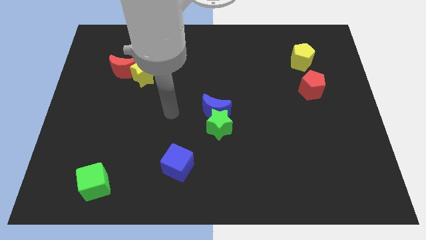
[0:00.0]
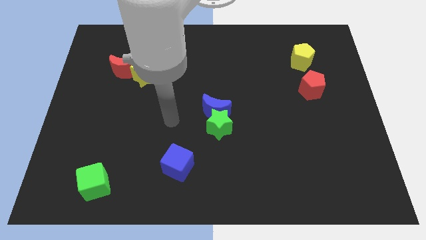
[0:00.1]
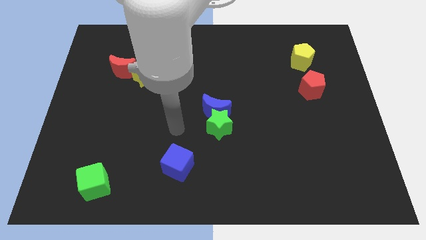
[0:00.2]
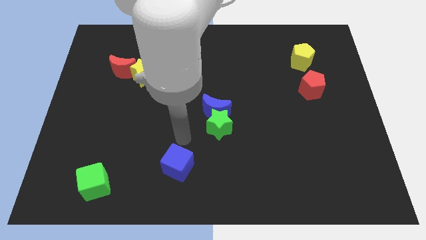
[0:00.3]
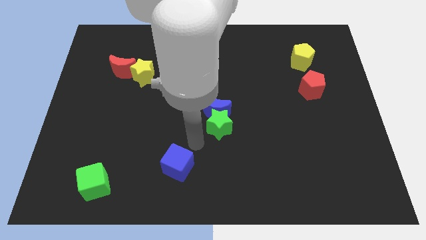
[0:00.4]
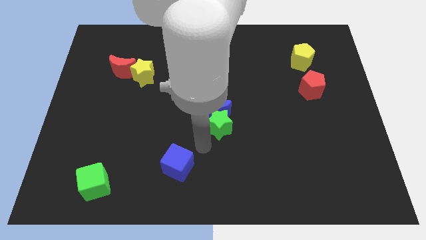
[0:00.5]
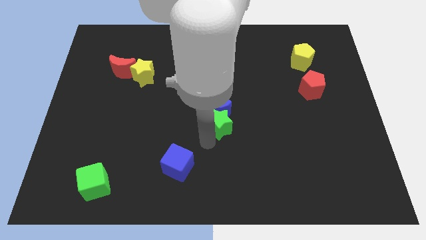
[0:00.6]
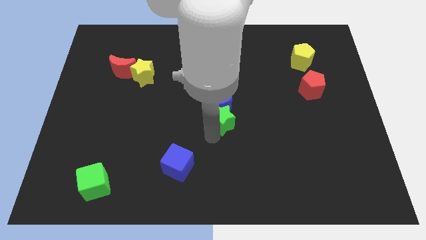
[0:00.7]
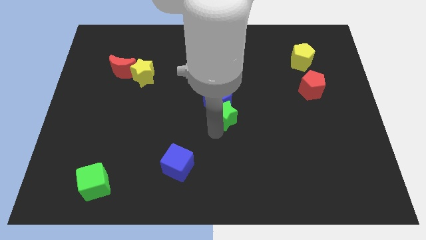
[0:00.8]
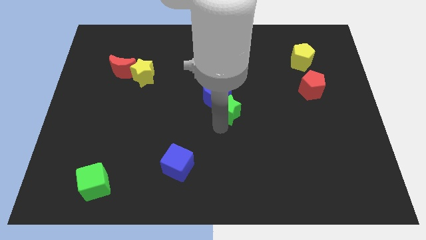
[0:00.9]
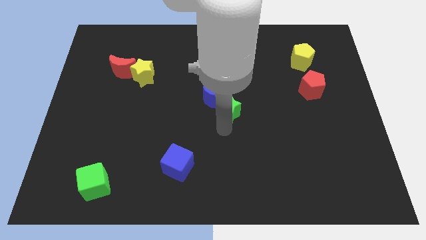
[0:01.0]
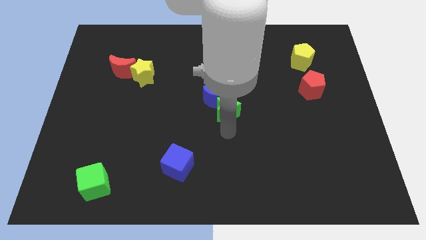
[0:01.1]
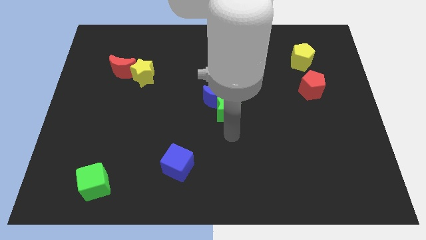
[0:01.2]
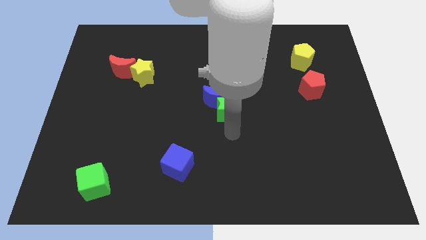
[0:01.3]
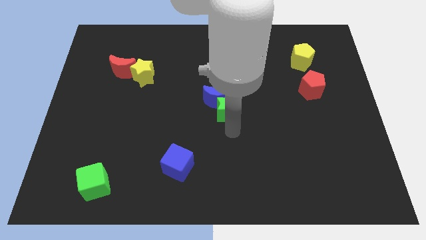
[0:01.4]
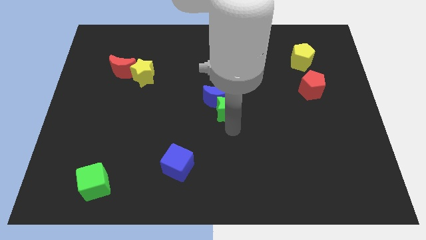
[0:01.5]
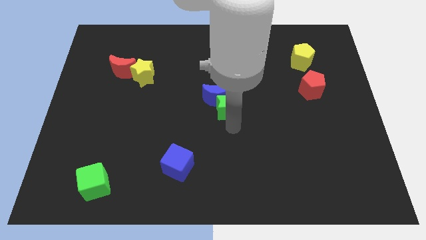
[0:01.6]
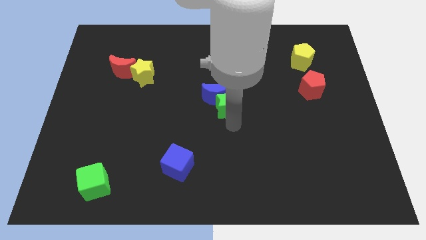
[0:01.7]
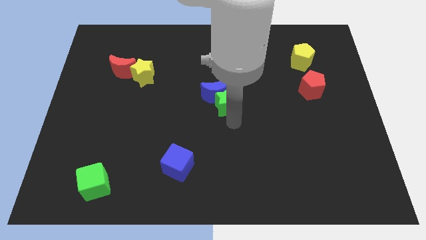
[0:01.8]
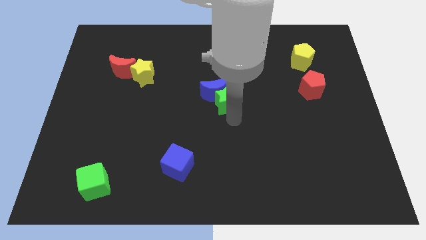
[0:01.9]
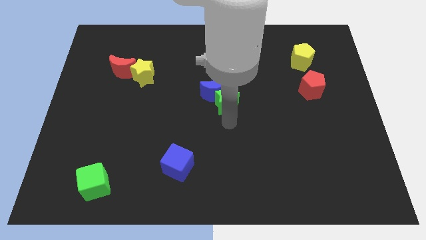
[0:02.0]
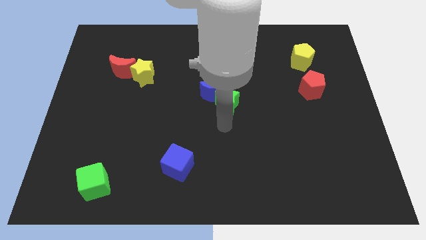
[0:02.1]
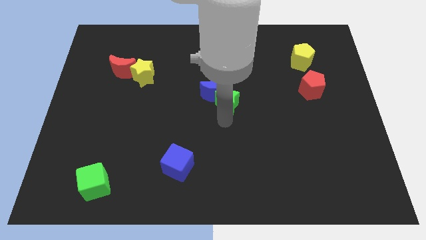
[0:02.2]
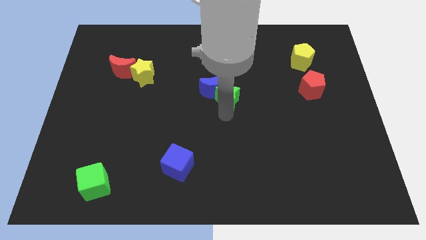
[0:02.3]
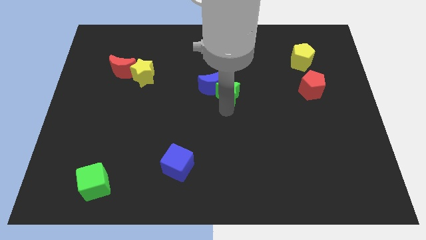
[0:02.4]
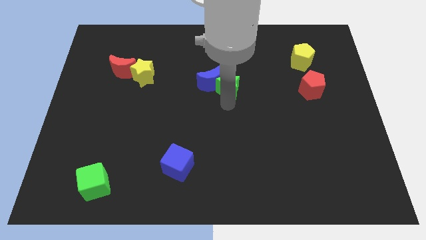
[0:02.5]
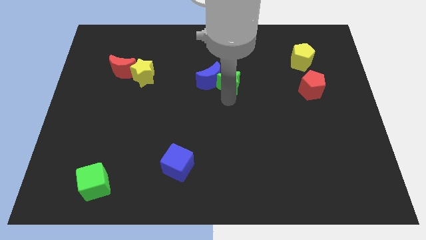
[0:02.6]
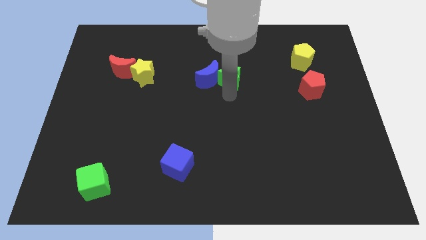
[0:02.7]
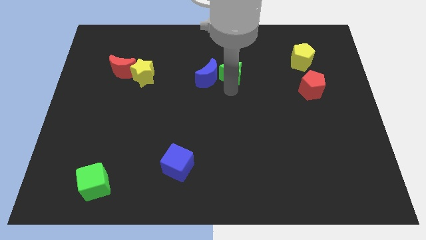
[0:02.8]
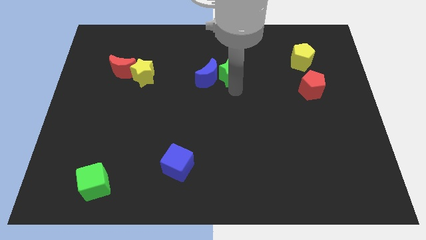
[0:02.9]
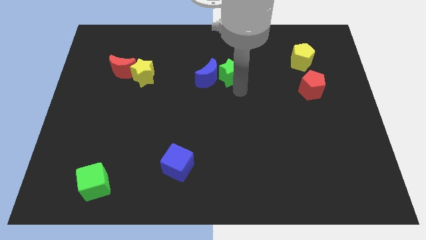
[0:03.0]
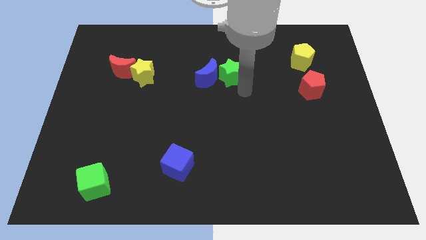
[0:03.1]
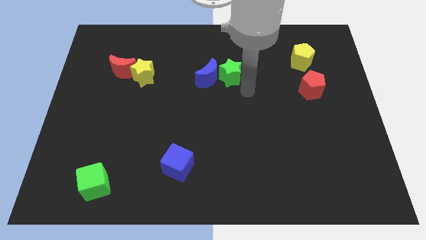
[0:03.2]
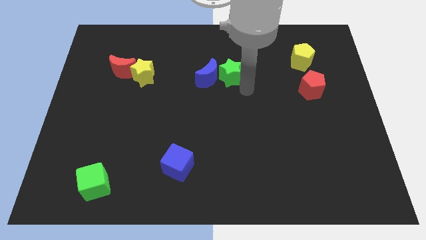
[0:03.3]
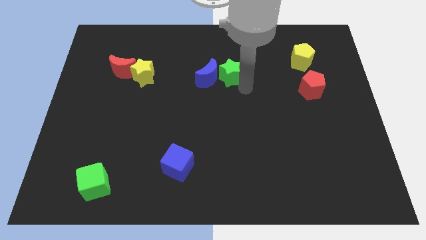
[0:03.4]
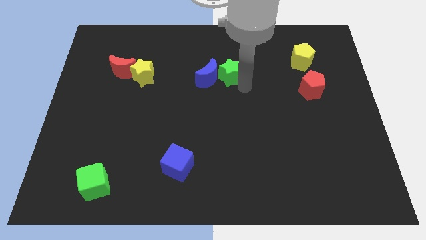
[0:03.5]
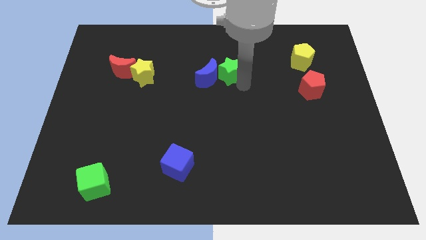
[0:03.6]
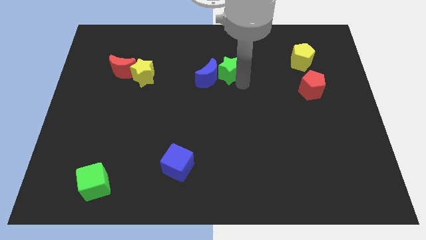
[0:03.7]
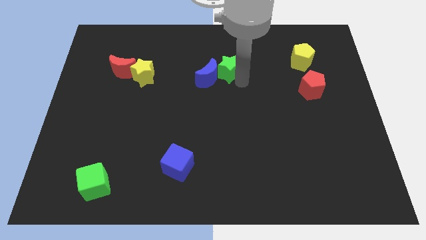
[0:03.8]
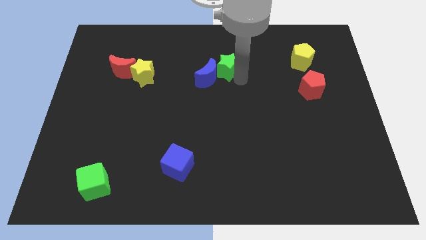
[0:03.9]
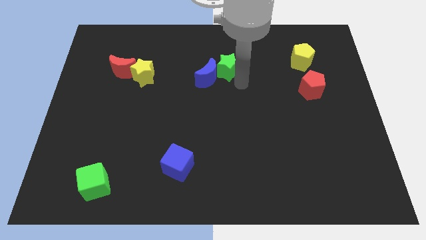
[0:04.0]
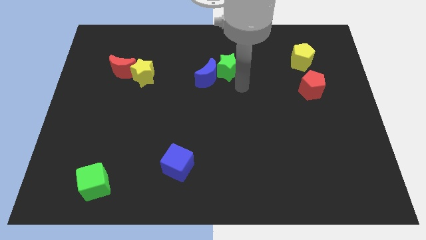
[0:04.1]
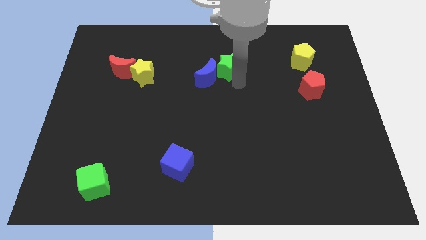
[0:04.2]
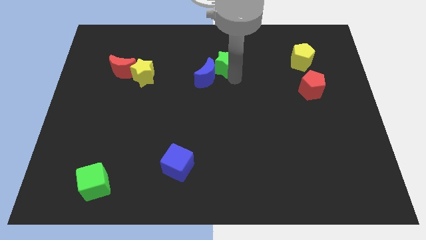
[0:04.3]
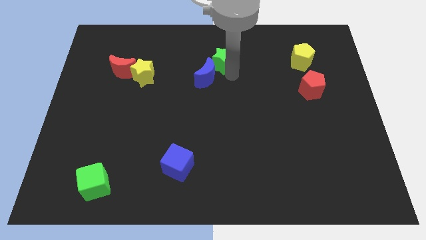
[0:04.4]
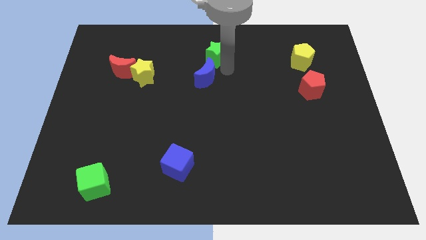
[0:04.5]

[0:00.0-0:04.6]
move the green star to the top

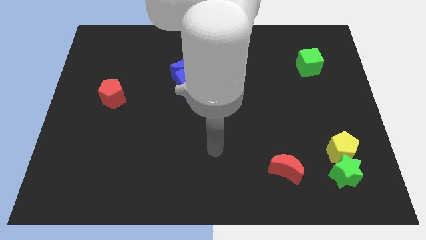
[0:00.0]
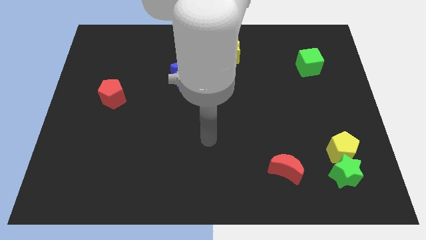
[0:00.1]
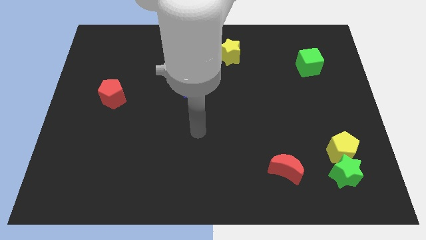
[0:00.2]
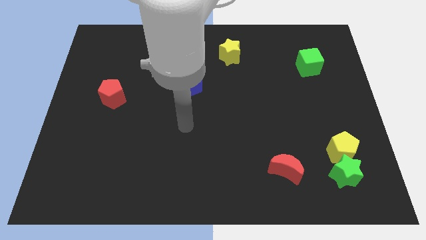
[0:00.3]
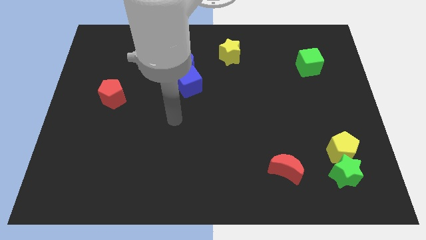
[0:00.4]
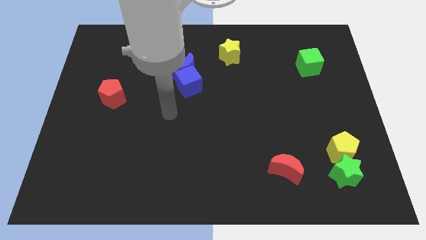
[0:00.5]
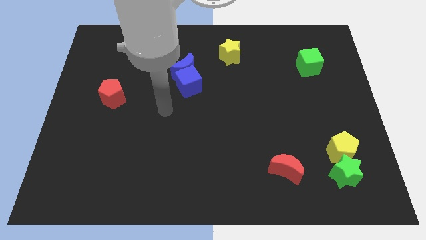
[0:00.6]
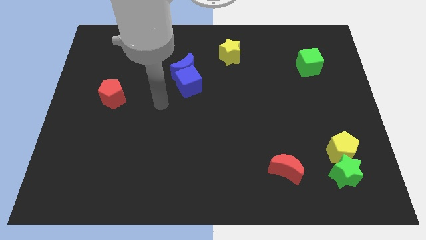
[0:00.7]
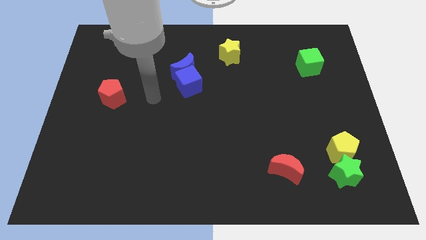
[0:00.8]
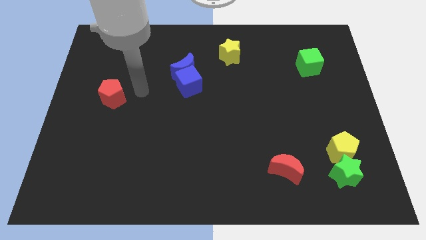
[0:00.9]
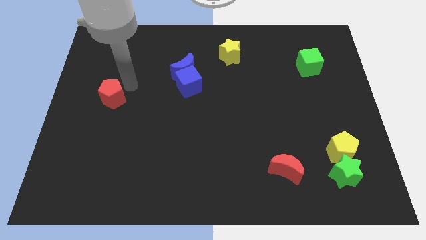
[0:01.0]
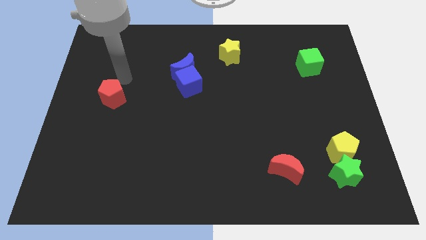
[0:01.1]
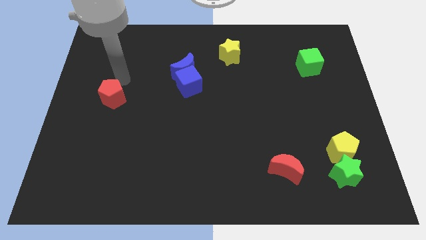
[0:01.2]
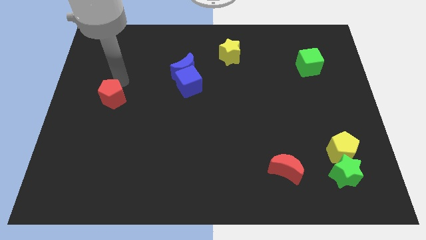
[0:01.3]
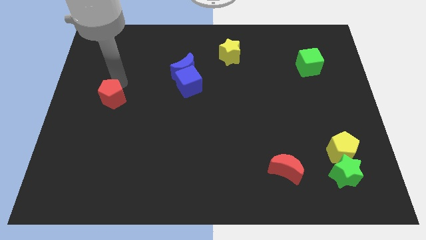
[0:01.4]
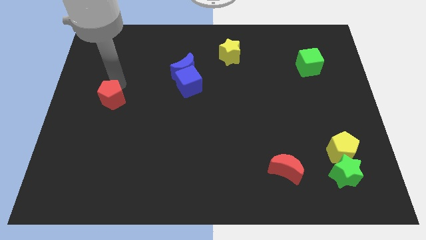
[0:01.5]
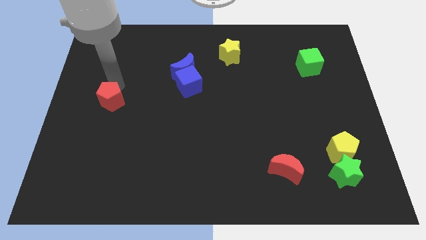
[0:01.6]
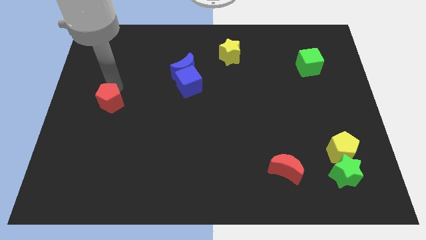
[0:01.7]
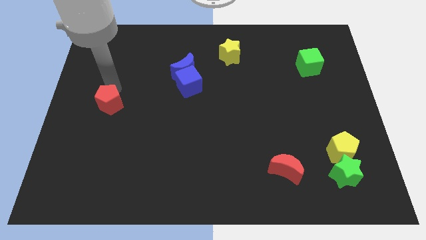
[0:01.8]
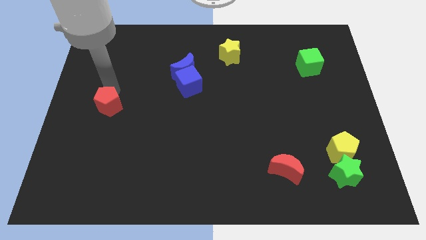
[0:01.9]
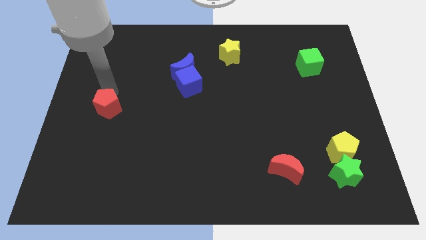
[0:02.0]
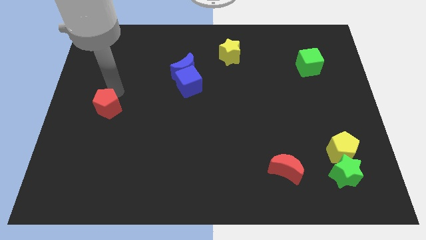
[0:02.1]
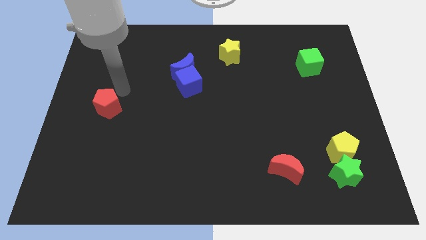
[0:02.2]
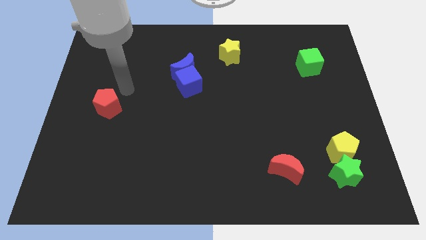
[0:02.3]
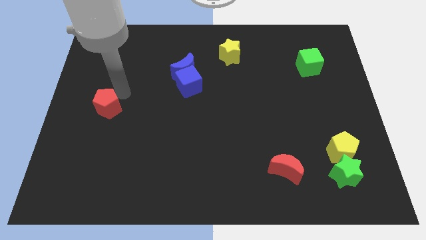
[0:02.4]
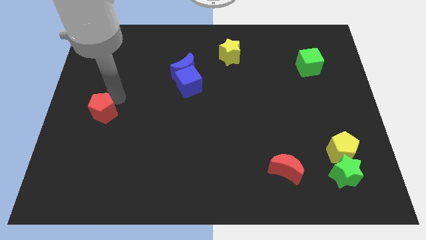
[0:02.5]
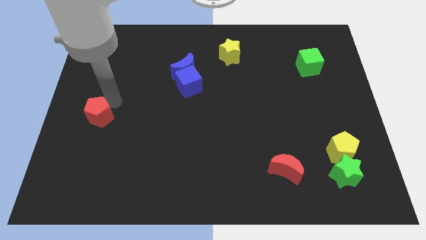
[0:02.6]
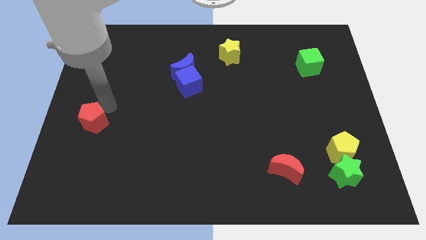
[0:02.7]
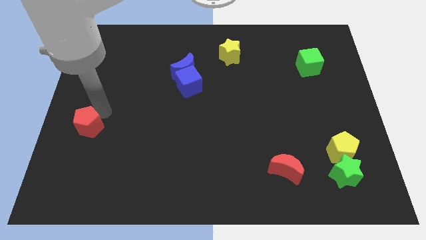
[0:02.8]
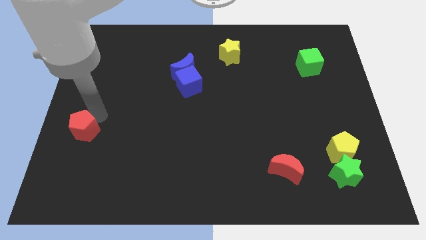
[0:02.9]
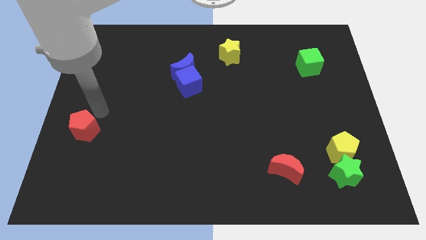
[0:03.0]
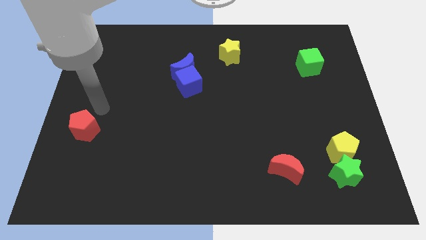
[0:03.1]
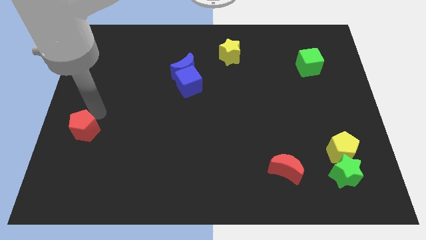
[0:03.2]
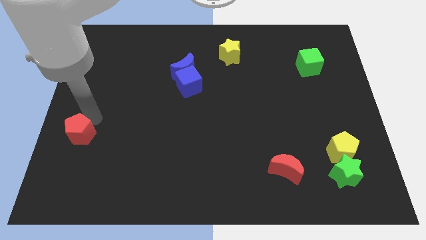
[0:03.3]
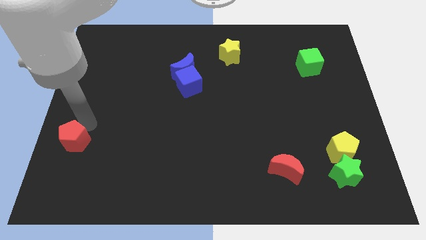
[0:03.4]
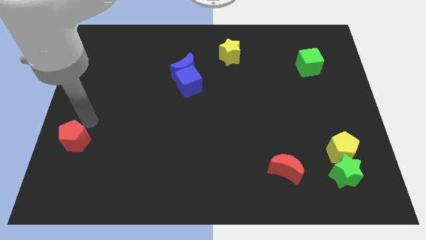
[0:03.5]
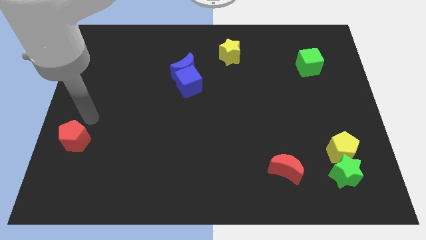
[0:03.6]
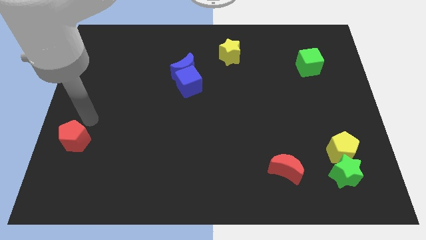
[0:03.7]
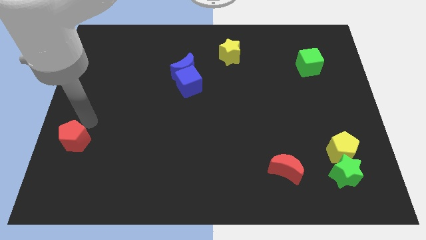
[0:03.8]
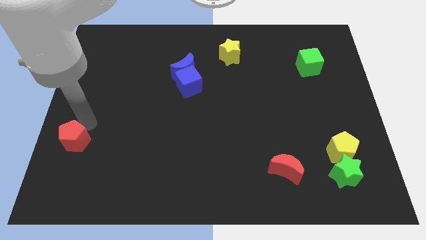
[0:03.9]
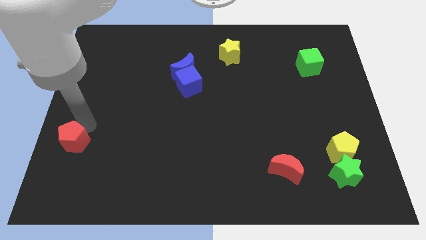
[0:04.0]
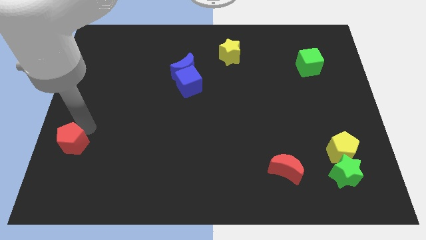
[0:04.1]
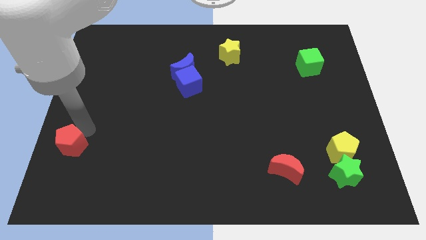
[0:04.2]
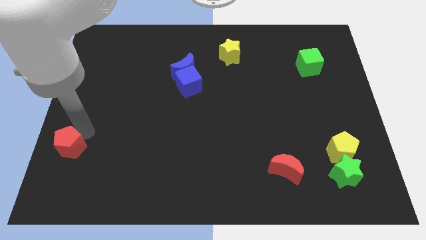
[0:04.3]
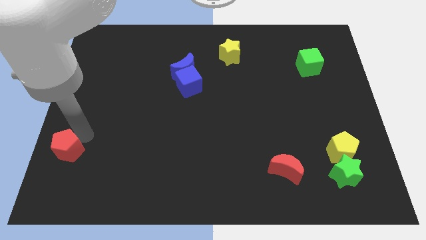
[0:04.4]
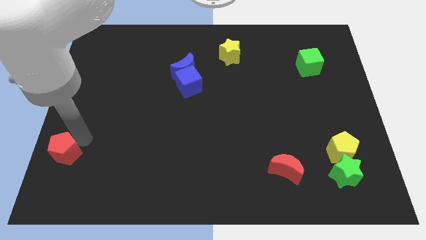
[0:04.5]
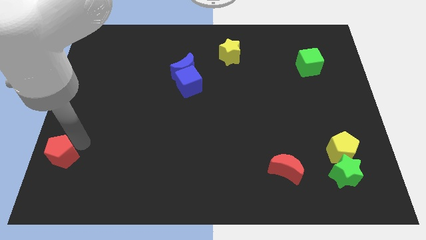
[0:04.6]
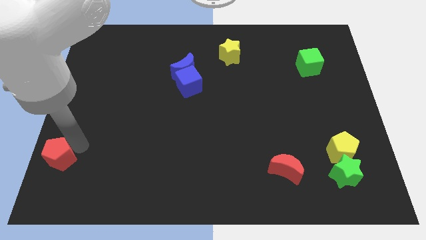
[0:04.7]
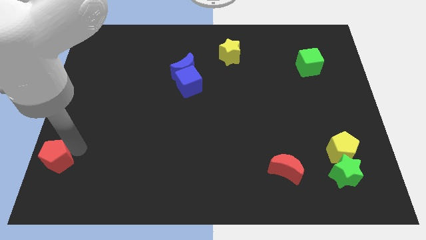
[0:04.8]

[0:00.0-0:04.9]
slide the red pentagon to the bottom left corner
